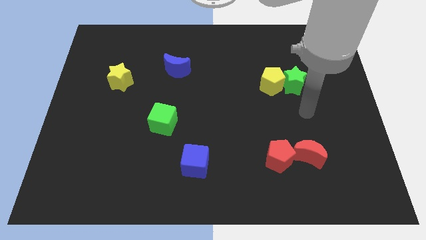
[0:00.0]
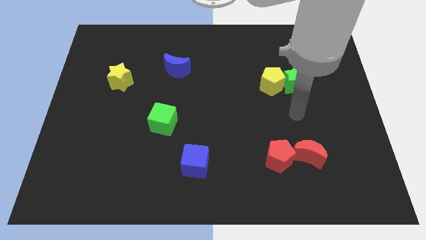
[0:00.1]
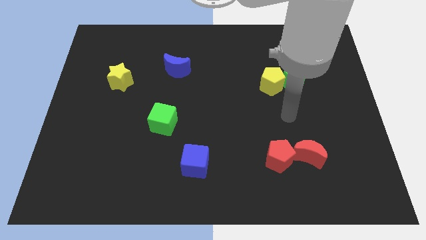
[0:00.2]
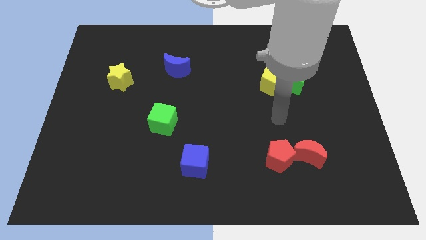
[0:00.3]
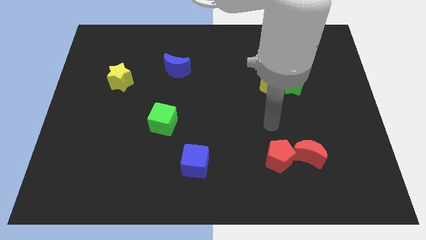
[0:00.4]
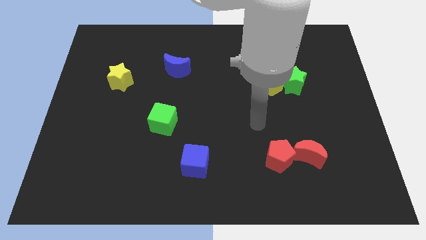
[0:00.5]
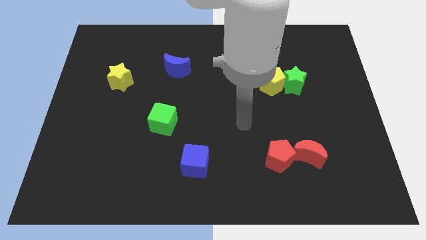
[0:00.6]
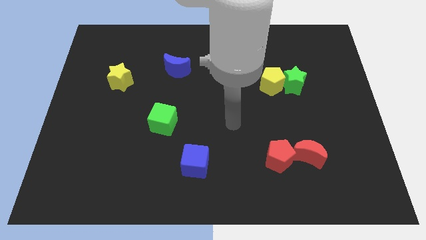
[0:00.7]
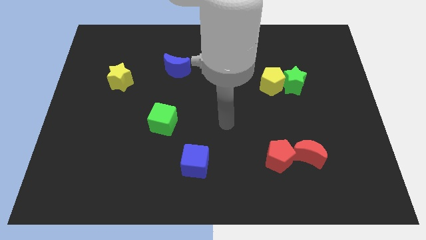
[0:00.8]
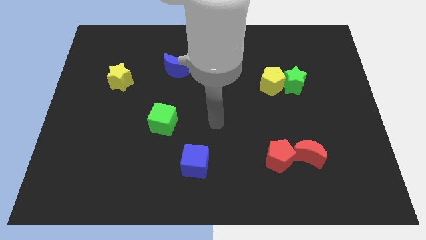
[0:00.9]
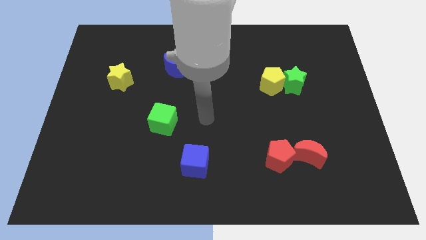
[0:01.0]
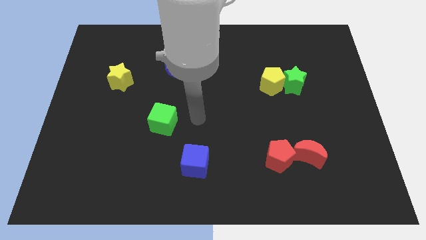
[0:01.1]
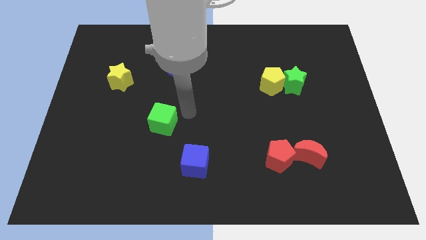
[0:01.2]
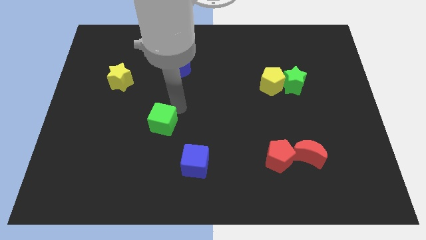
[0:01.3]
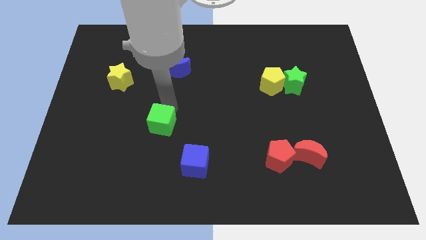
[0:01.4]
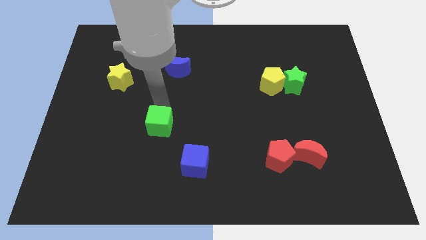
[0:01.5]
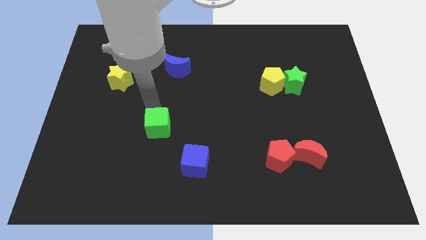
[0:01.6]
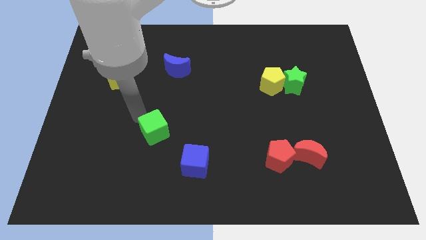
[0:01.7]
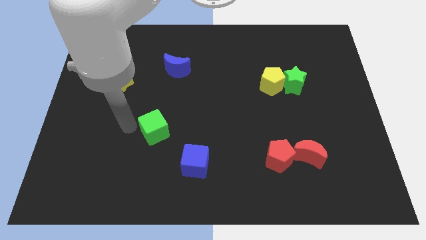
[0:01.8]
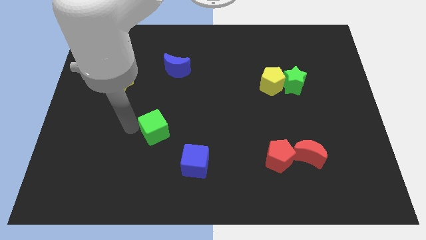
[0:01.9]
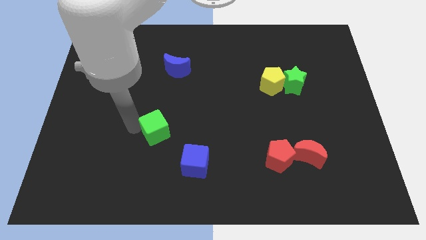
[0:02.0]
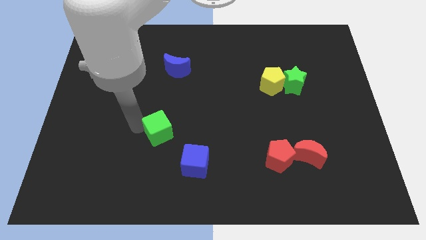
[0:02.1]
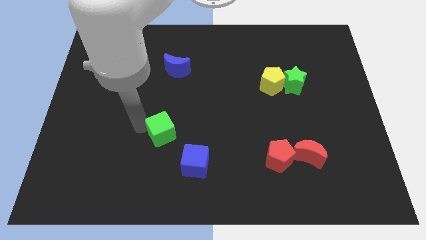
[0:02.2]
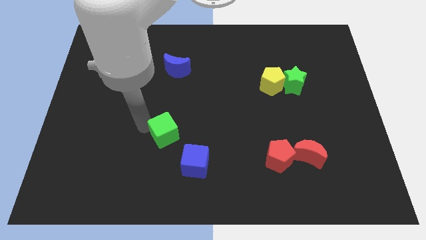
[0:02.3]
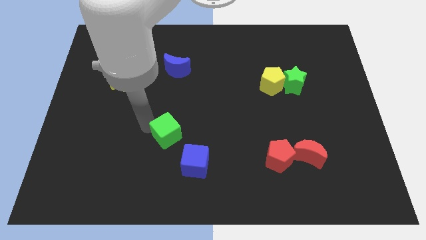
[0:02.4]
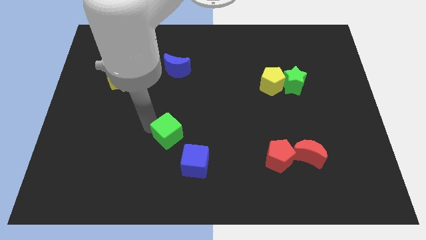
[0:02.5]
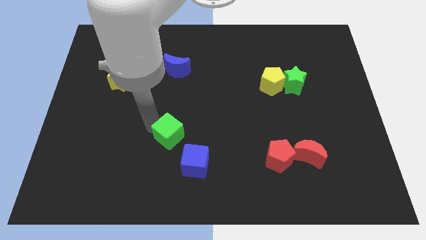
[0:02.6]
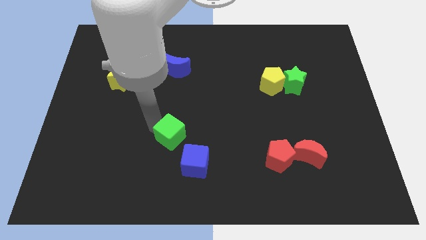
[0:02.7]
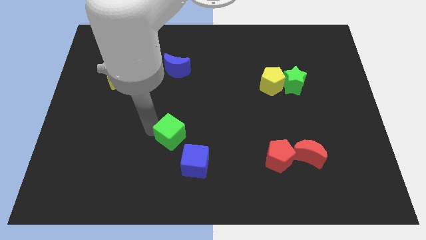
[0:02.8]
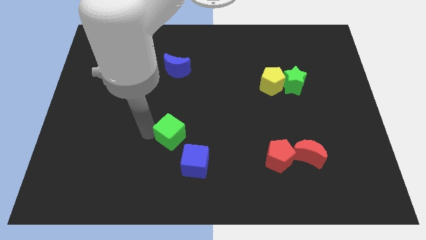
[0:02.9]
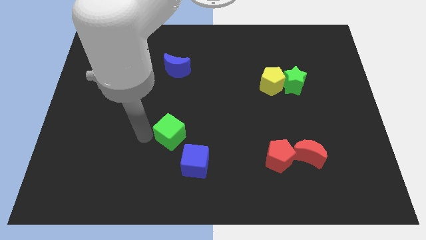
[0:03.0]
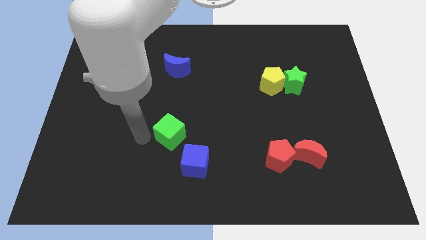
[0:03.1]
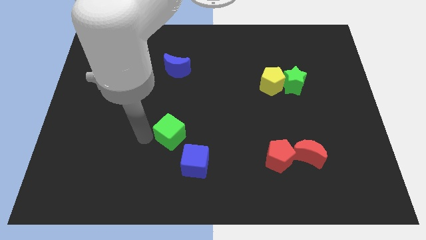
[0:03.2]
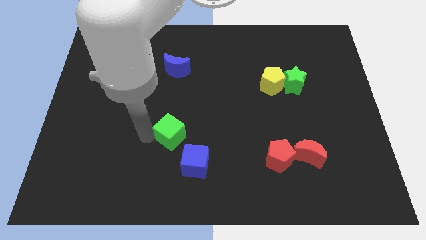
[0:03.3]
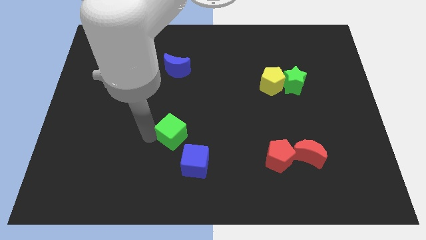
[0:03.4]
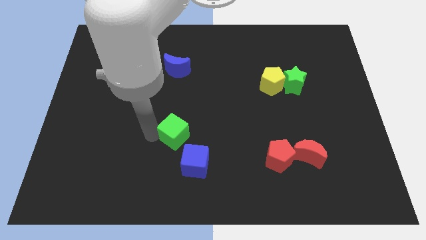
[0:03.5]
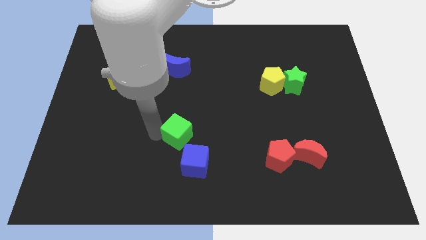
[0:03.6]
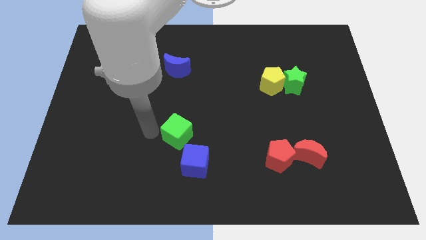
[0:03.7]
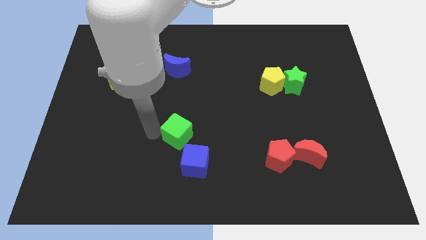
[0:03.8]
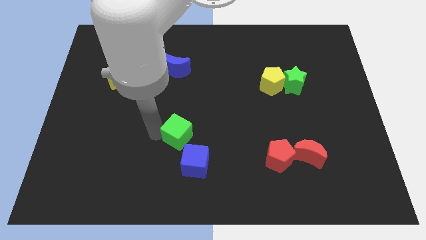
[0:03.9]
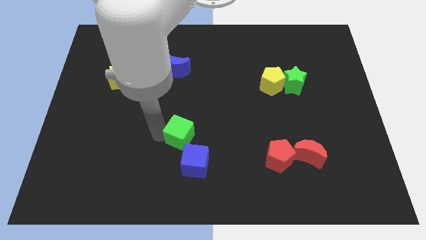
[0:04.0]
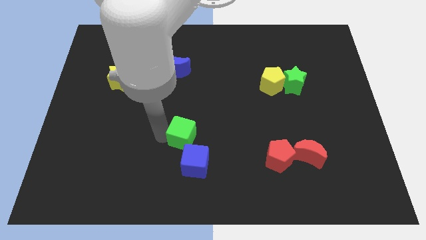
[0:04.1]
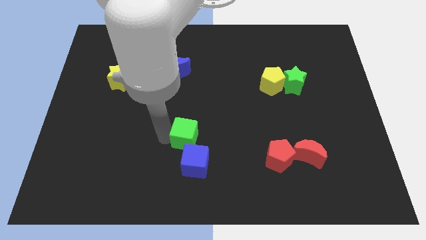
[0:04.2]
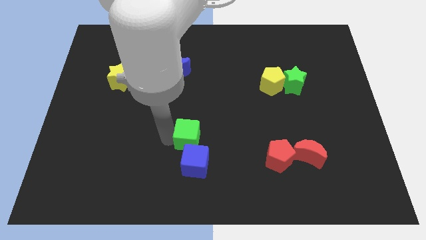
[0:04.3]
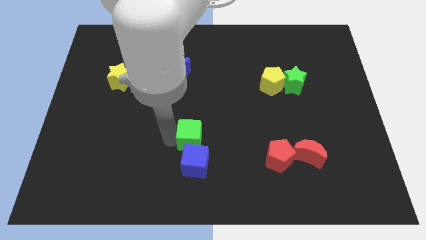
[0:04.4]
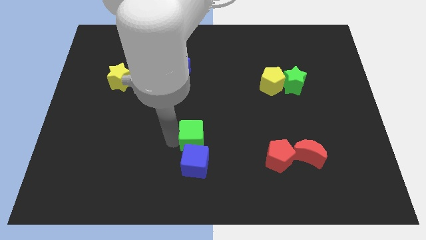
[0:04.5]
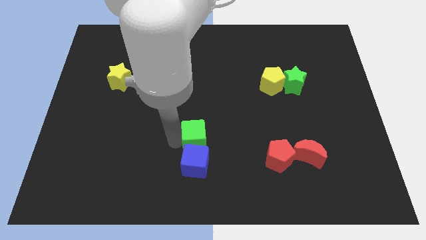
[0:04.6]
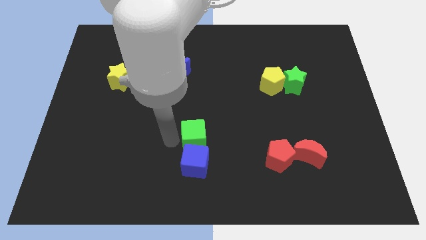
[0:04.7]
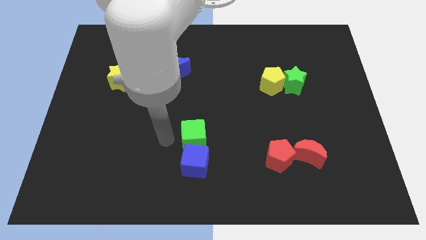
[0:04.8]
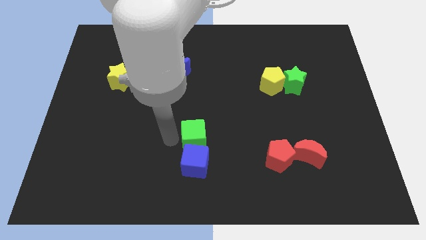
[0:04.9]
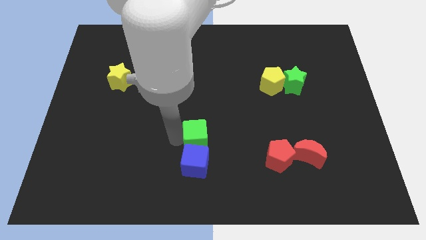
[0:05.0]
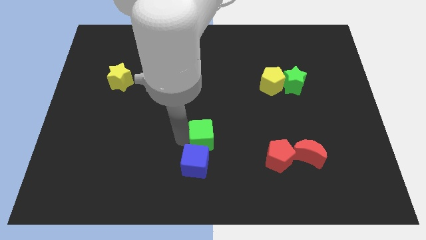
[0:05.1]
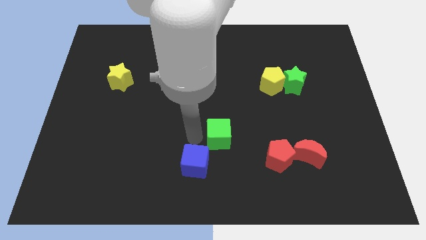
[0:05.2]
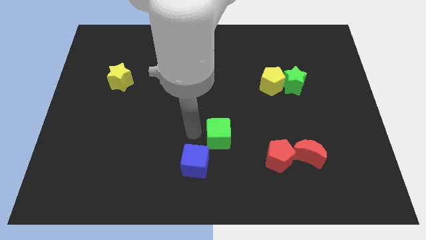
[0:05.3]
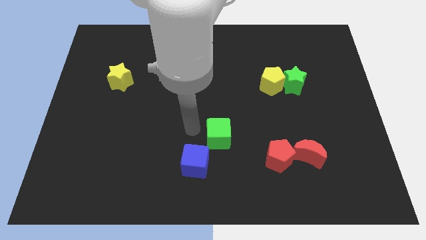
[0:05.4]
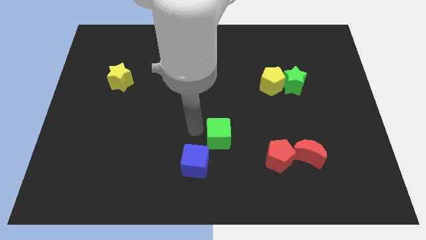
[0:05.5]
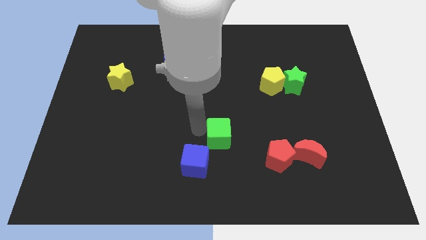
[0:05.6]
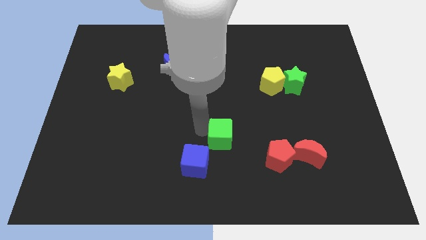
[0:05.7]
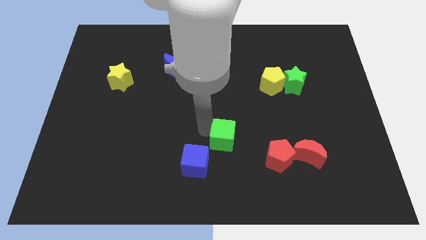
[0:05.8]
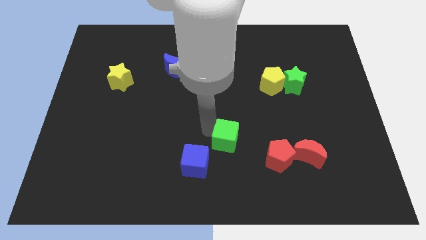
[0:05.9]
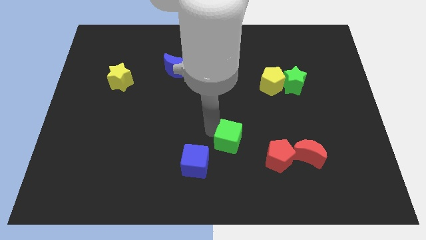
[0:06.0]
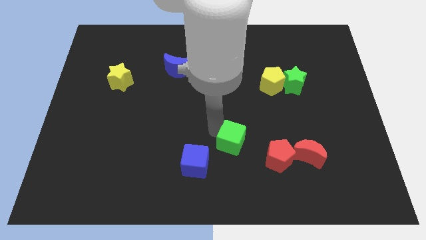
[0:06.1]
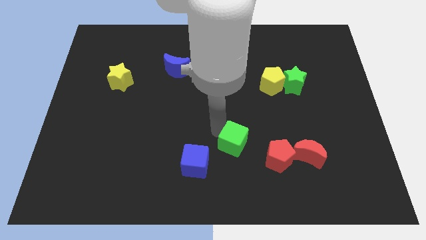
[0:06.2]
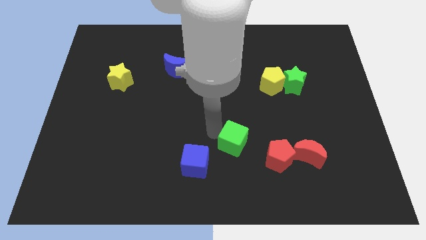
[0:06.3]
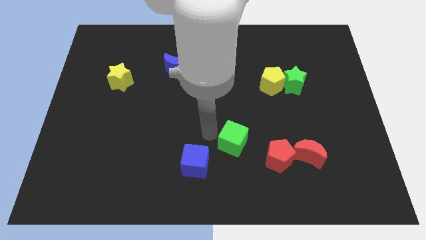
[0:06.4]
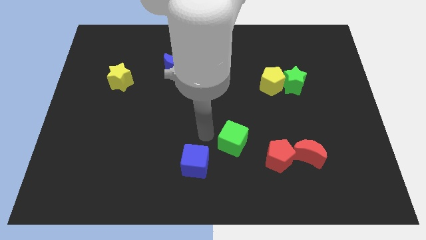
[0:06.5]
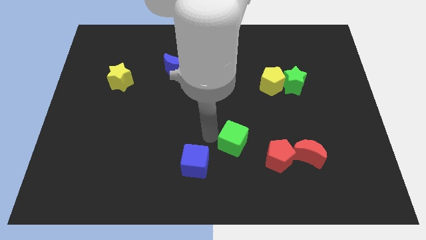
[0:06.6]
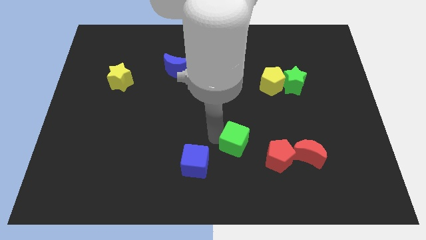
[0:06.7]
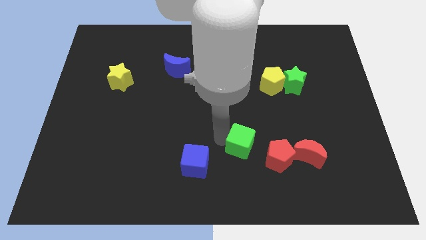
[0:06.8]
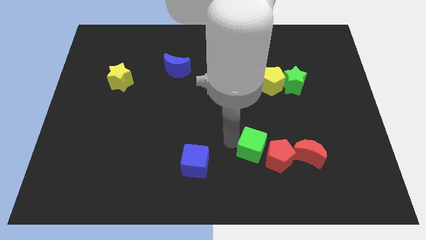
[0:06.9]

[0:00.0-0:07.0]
push the green cube next to the red pentagon
